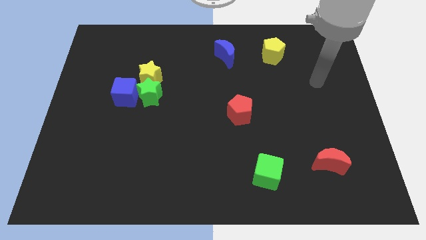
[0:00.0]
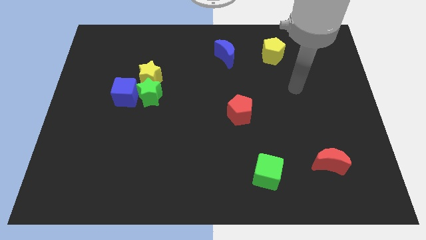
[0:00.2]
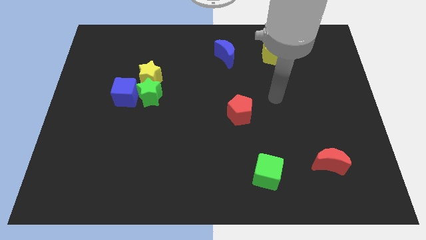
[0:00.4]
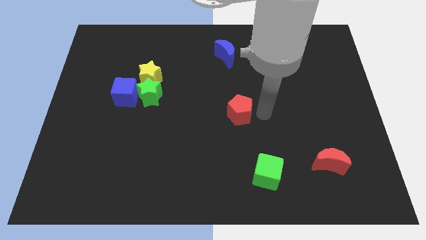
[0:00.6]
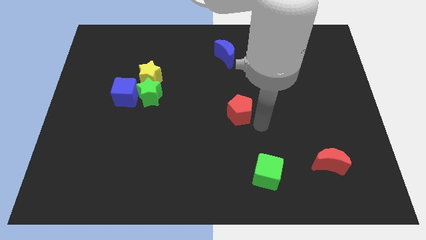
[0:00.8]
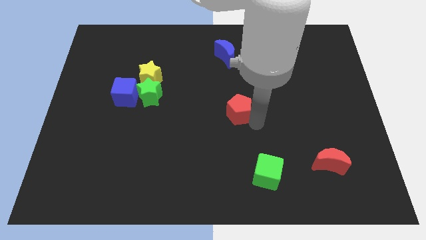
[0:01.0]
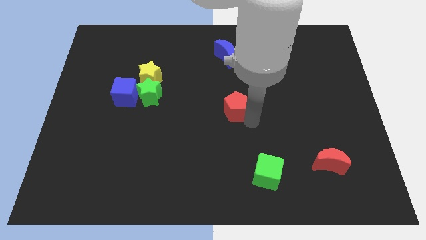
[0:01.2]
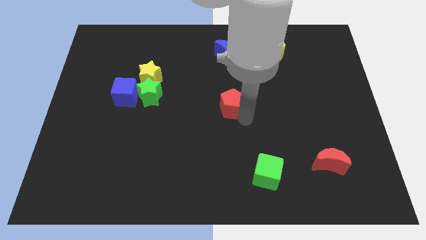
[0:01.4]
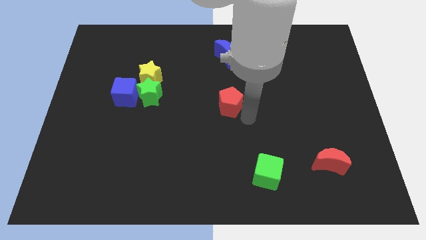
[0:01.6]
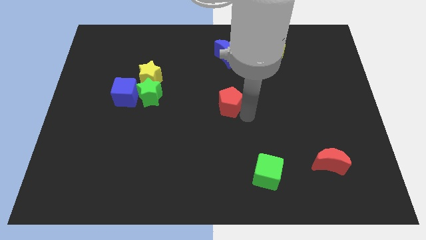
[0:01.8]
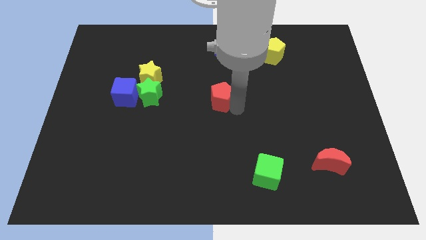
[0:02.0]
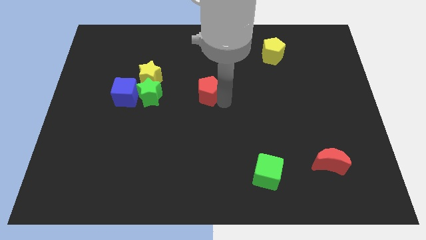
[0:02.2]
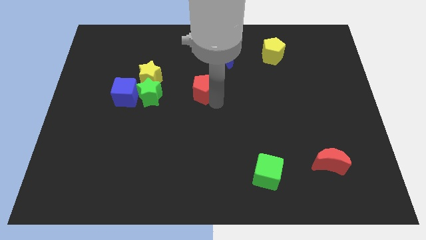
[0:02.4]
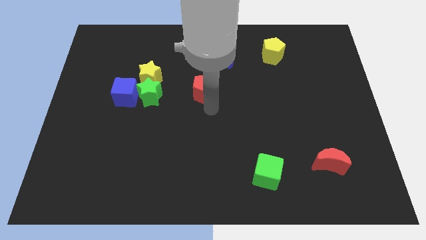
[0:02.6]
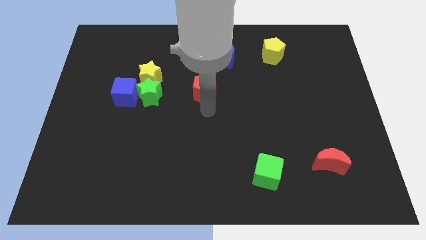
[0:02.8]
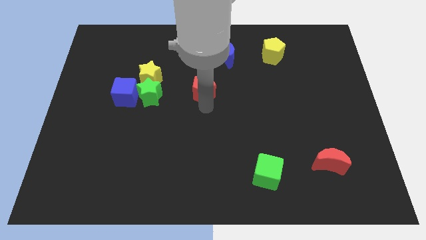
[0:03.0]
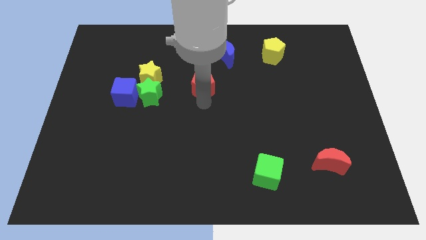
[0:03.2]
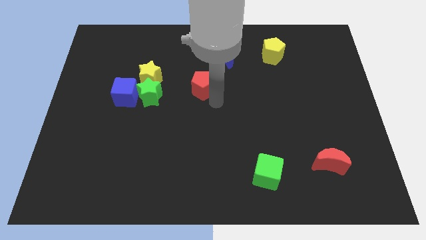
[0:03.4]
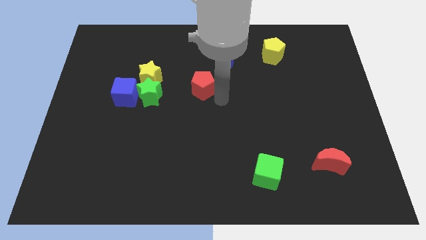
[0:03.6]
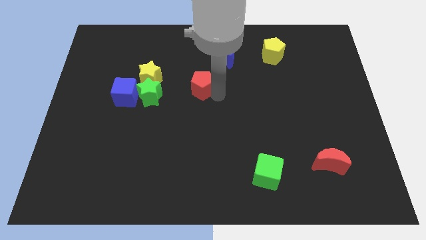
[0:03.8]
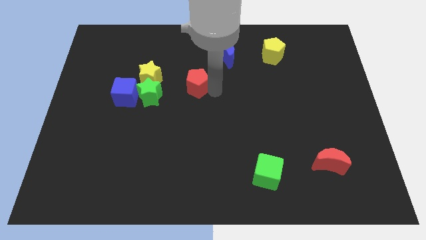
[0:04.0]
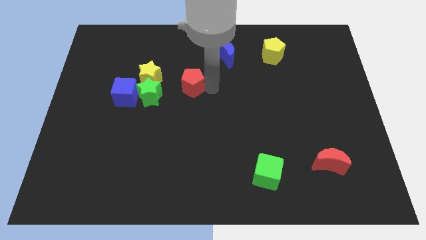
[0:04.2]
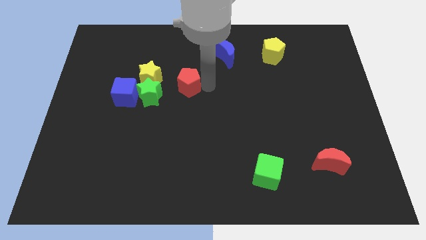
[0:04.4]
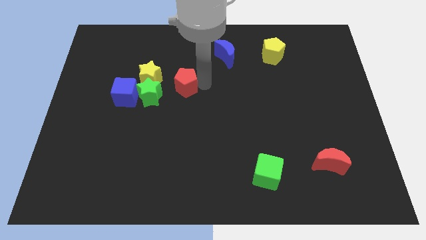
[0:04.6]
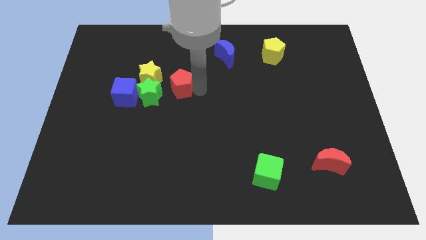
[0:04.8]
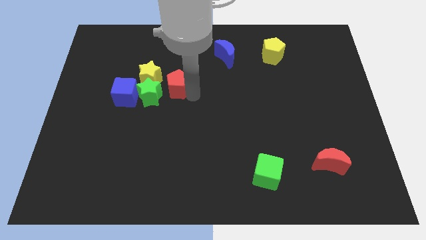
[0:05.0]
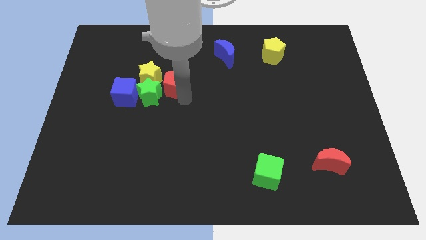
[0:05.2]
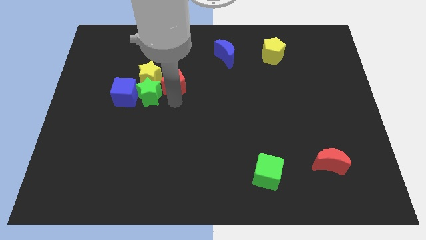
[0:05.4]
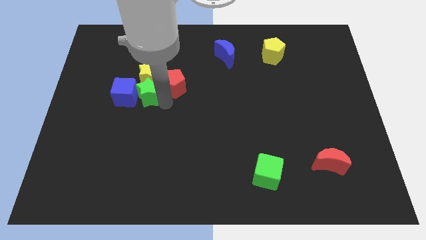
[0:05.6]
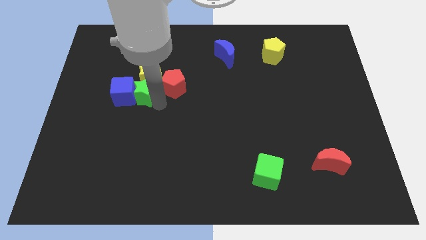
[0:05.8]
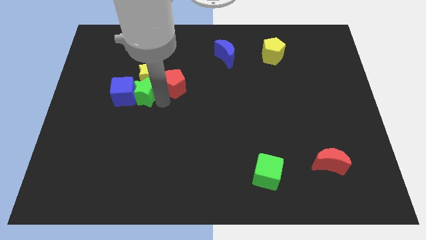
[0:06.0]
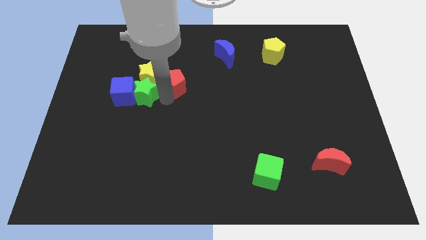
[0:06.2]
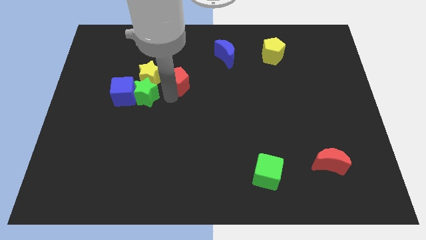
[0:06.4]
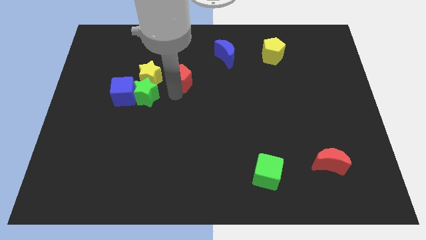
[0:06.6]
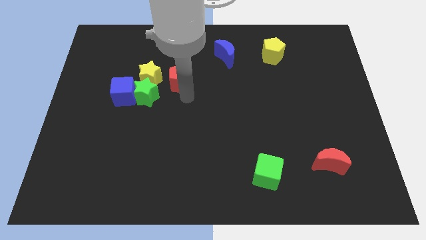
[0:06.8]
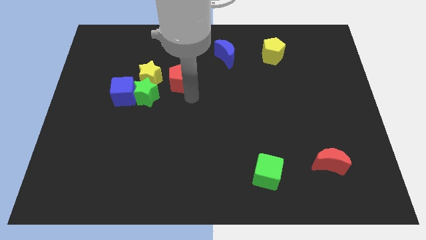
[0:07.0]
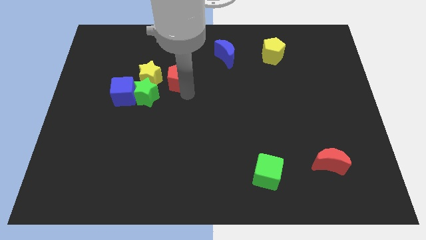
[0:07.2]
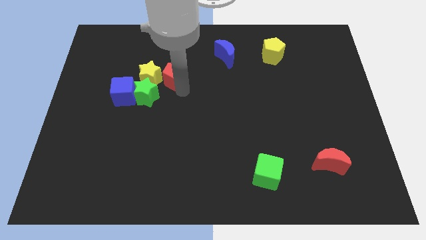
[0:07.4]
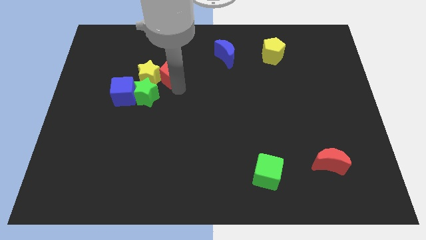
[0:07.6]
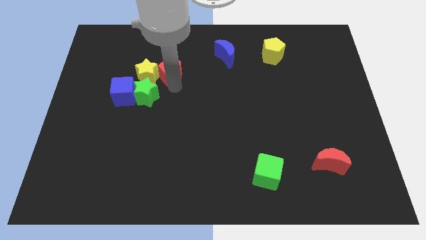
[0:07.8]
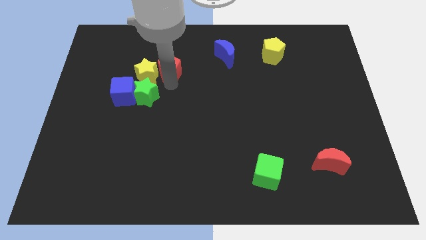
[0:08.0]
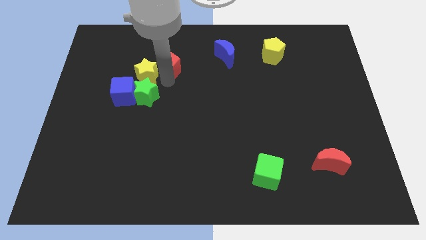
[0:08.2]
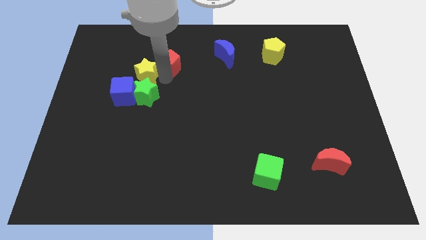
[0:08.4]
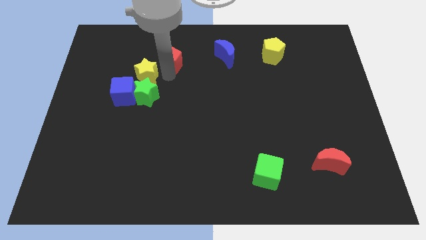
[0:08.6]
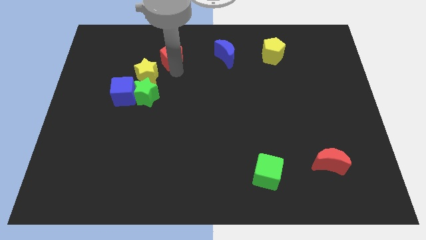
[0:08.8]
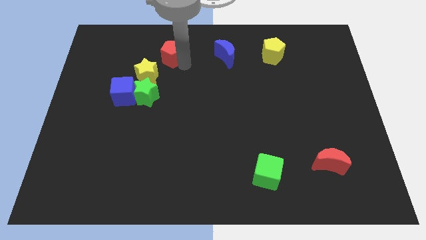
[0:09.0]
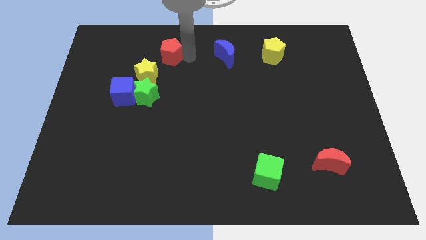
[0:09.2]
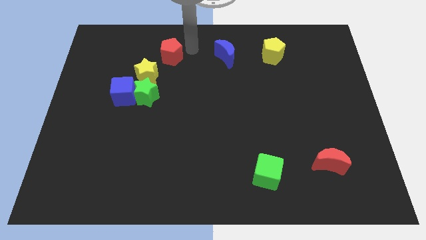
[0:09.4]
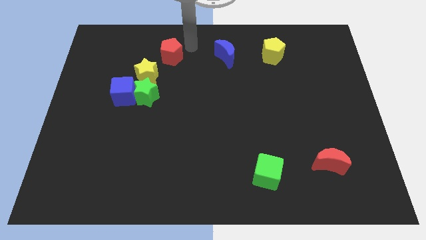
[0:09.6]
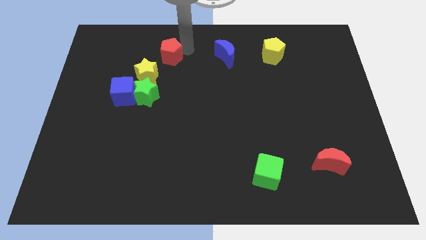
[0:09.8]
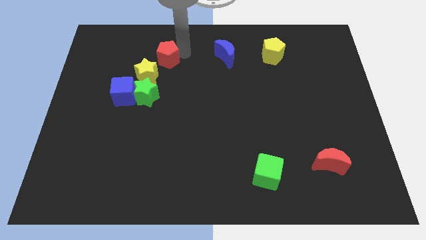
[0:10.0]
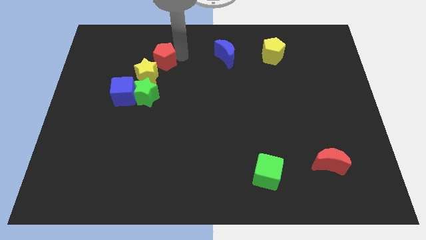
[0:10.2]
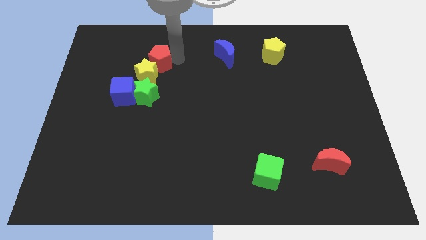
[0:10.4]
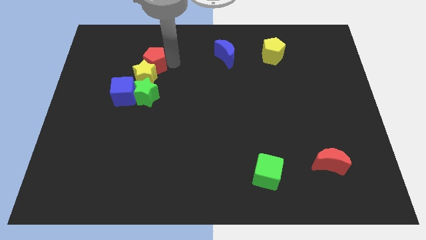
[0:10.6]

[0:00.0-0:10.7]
move the red pentagon to the top left of the yellow star

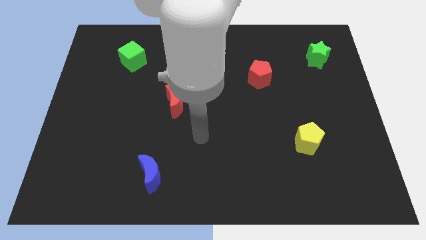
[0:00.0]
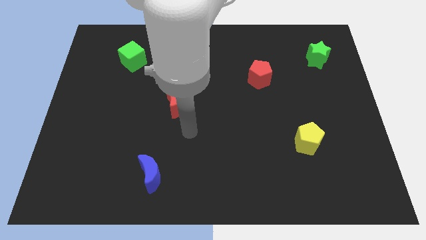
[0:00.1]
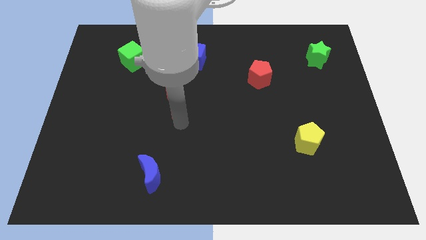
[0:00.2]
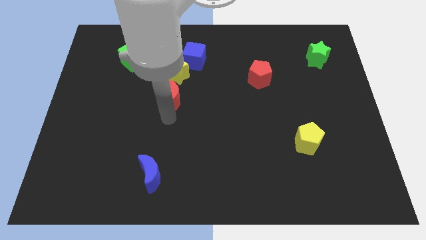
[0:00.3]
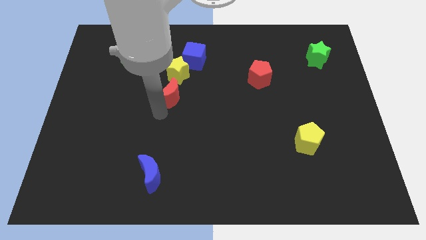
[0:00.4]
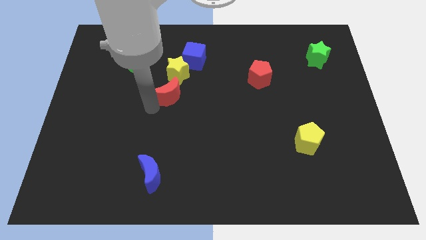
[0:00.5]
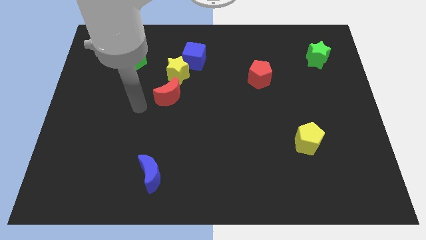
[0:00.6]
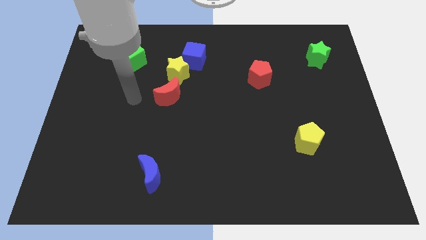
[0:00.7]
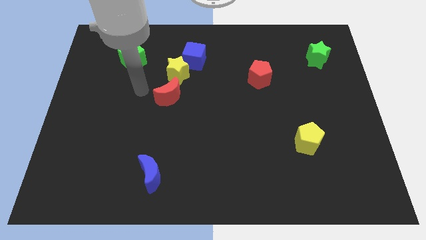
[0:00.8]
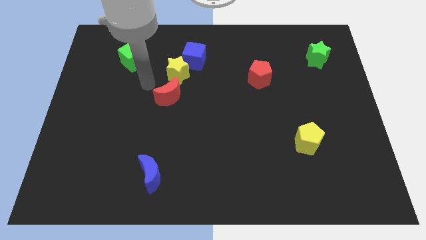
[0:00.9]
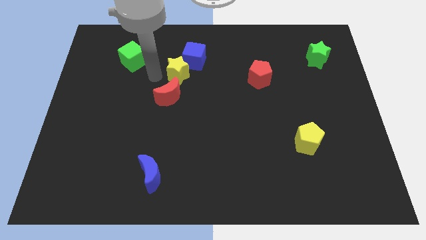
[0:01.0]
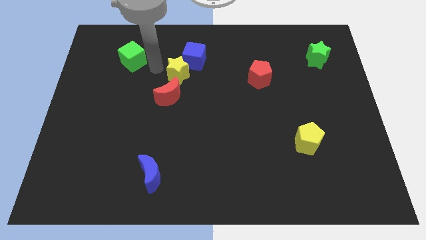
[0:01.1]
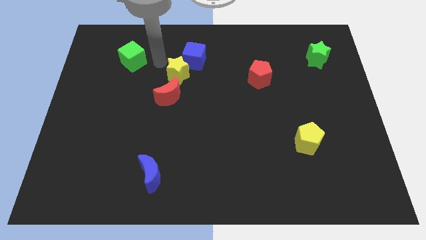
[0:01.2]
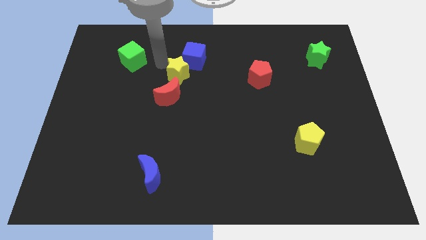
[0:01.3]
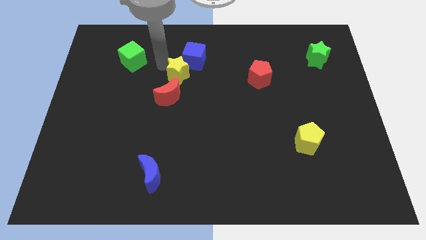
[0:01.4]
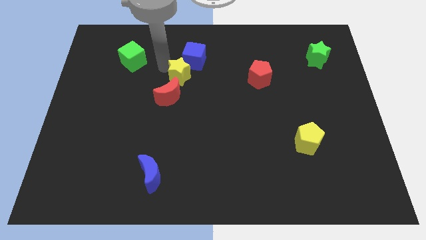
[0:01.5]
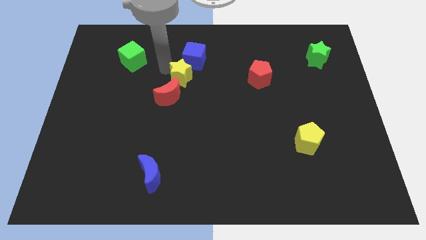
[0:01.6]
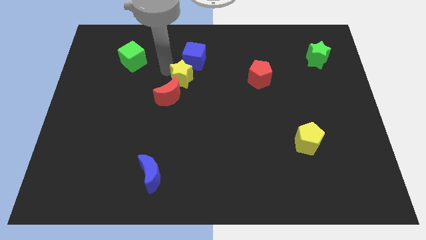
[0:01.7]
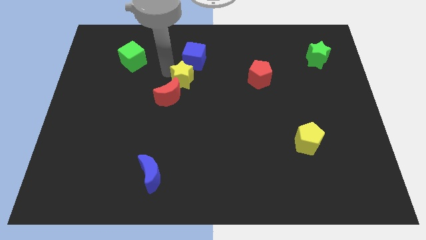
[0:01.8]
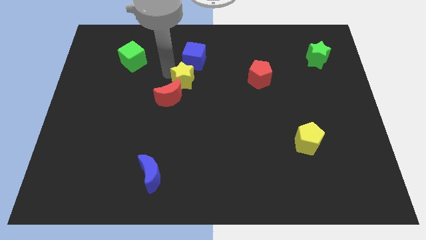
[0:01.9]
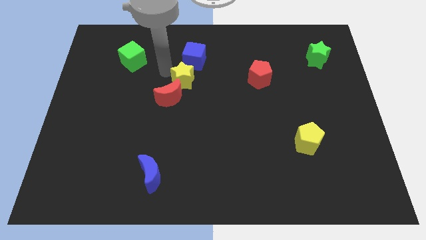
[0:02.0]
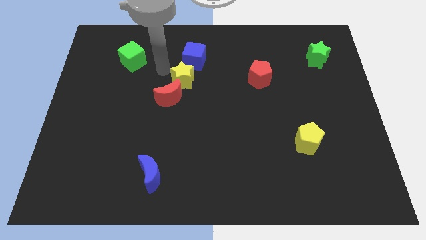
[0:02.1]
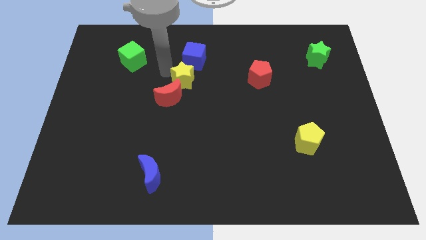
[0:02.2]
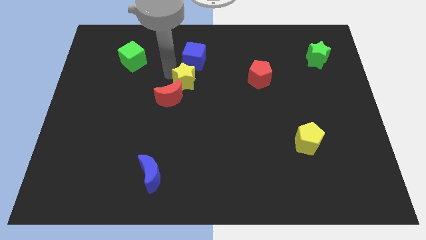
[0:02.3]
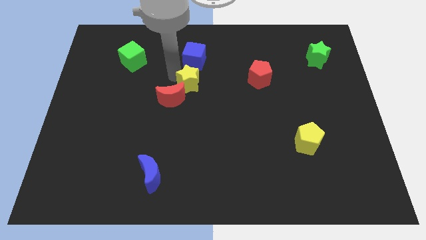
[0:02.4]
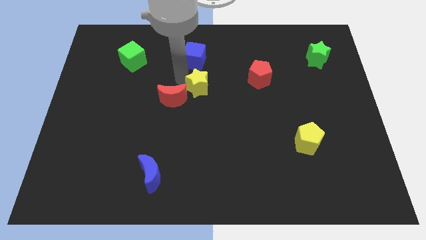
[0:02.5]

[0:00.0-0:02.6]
slide the yellow star right of the red moon

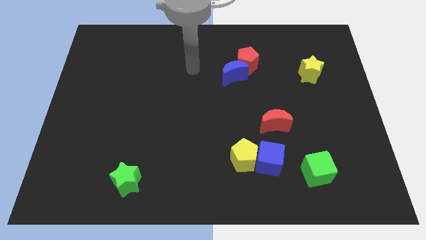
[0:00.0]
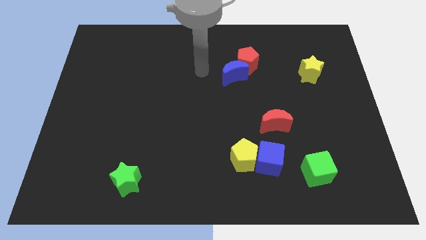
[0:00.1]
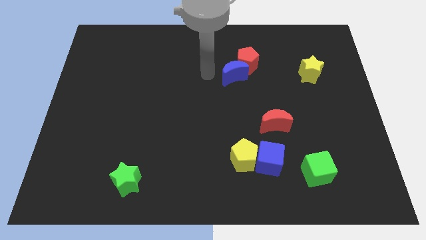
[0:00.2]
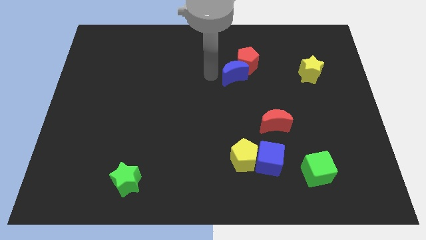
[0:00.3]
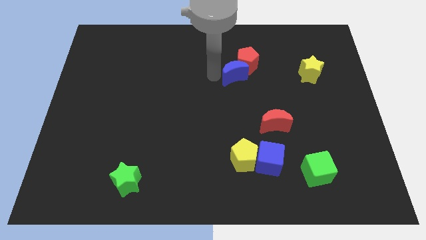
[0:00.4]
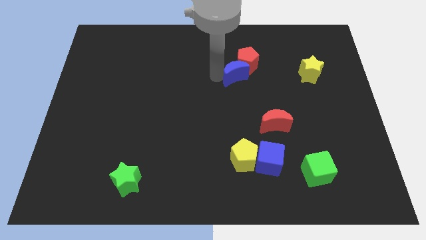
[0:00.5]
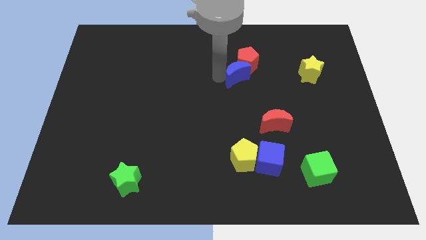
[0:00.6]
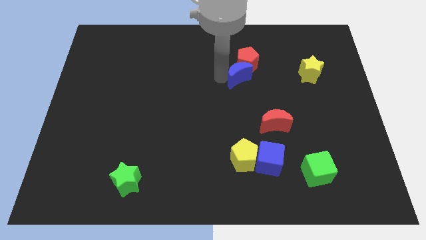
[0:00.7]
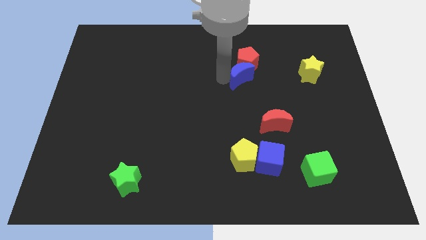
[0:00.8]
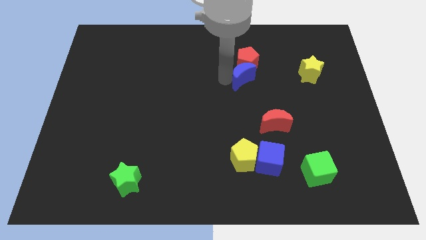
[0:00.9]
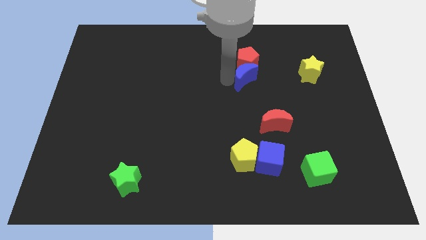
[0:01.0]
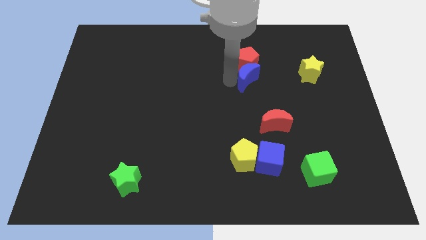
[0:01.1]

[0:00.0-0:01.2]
slide the blue moon to the left of the yellow star
